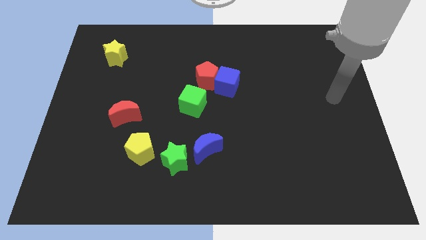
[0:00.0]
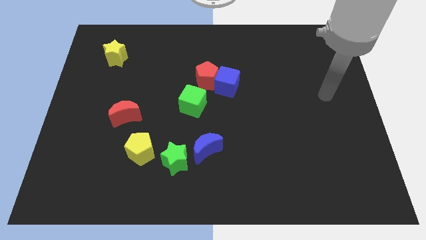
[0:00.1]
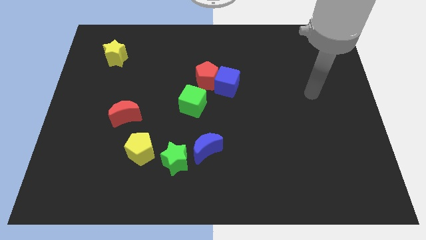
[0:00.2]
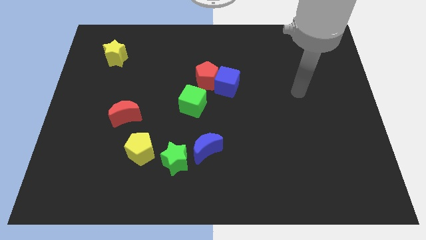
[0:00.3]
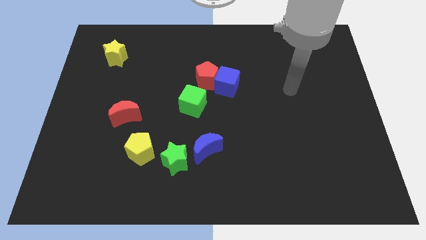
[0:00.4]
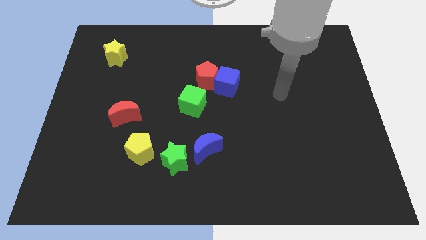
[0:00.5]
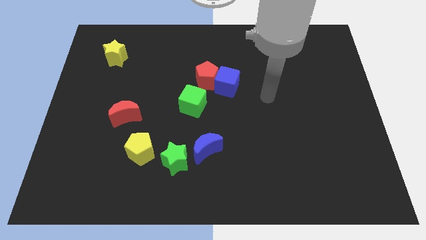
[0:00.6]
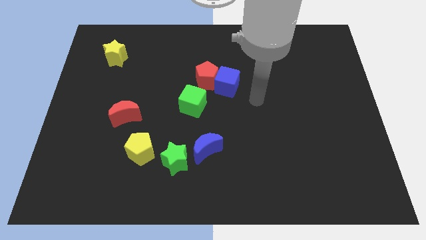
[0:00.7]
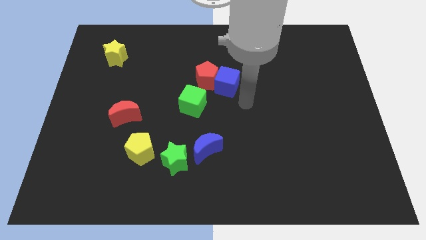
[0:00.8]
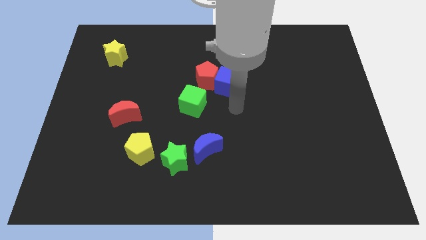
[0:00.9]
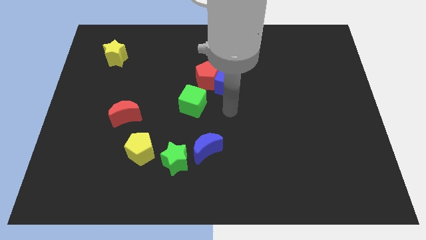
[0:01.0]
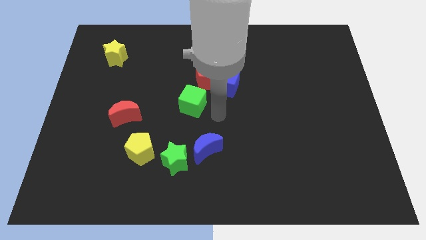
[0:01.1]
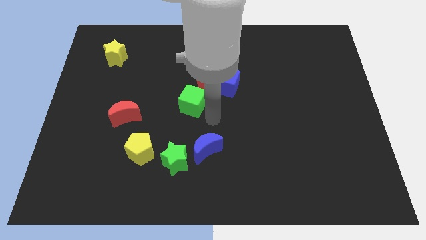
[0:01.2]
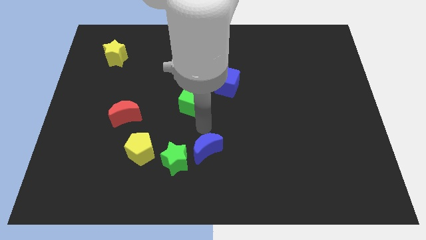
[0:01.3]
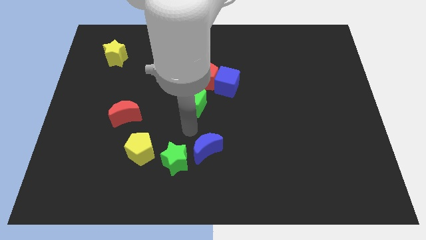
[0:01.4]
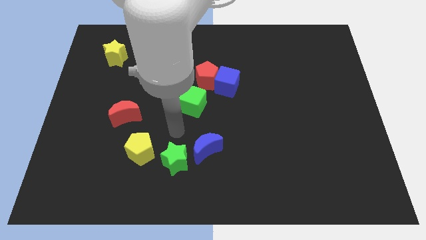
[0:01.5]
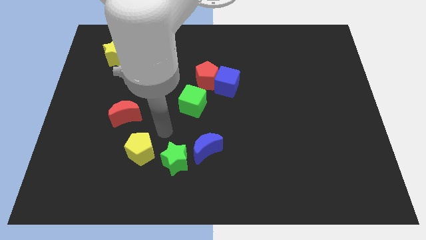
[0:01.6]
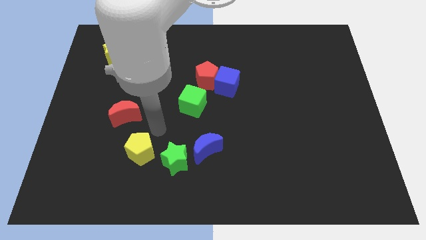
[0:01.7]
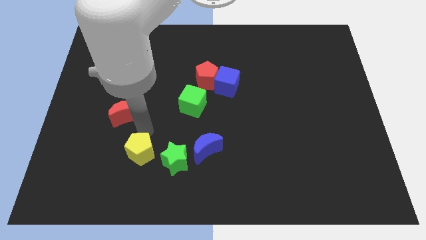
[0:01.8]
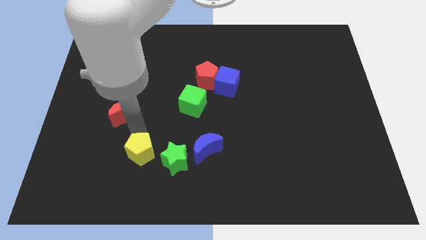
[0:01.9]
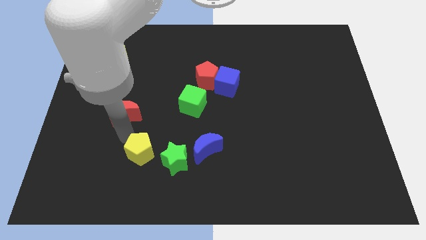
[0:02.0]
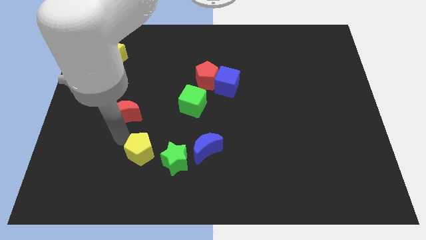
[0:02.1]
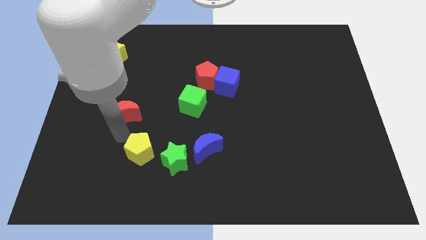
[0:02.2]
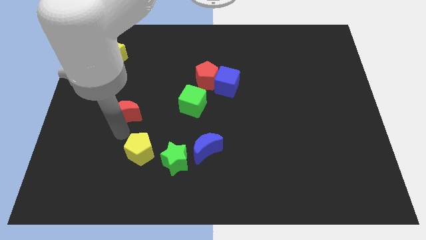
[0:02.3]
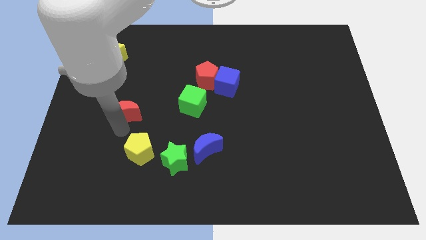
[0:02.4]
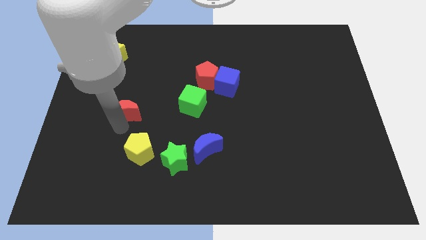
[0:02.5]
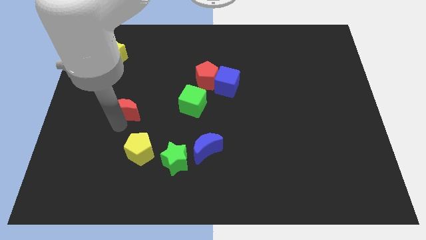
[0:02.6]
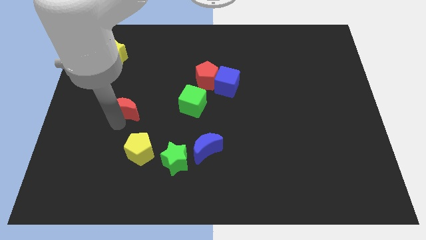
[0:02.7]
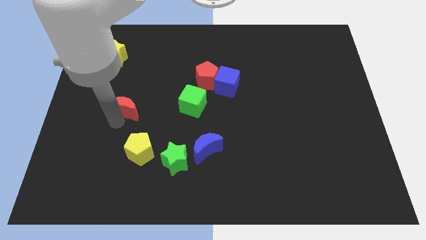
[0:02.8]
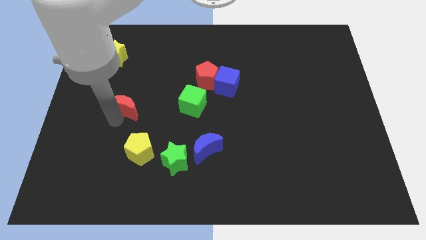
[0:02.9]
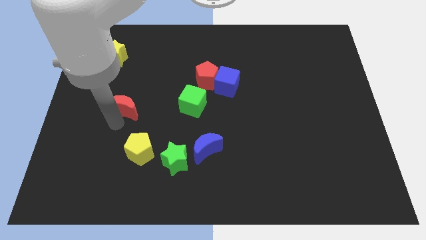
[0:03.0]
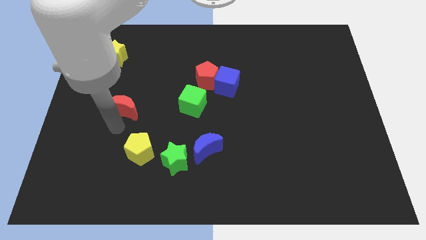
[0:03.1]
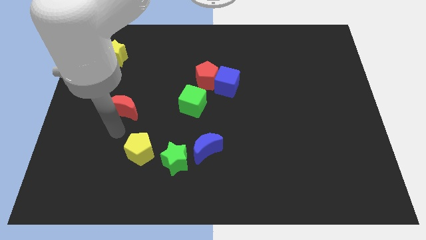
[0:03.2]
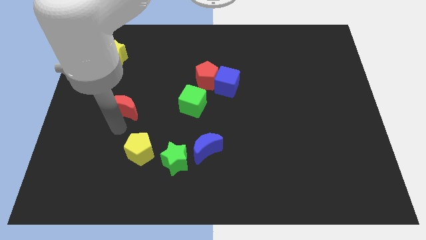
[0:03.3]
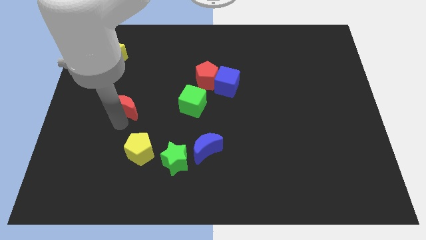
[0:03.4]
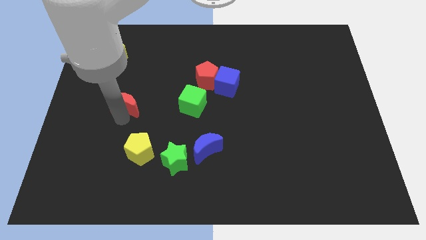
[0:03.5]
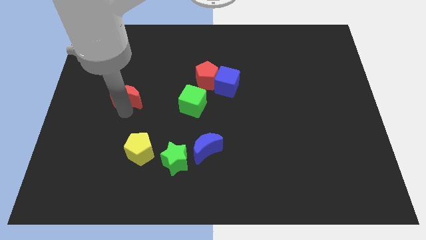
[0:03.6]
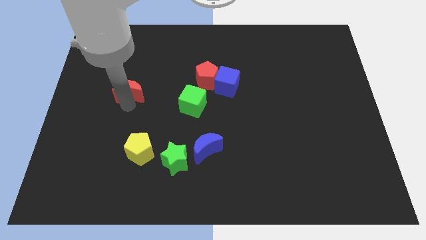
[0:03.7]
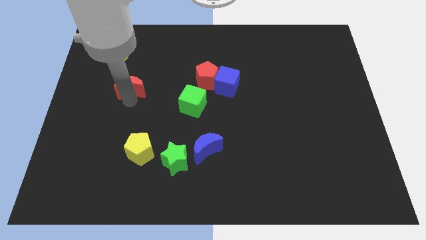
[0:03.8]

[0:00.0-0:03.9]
move the red moon somewhat upwards

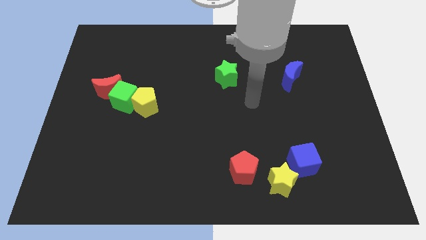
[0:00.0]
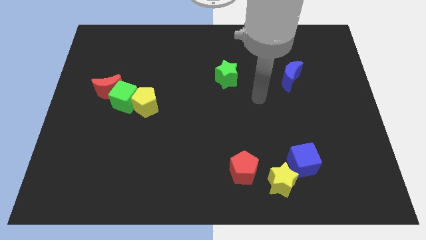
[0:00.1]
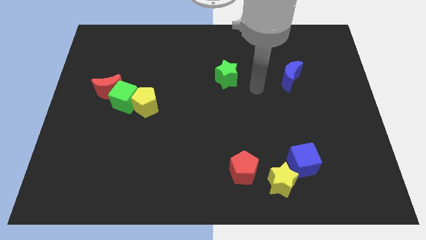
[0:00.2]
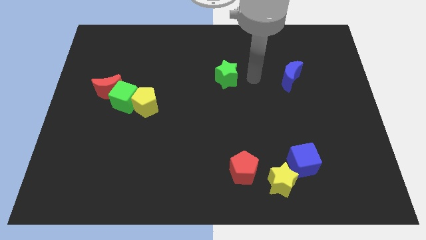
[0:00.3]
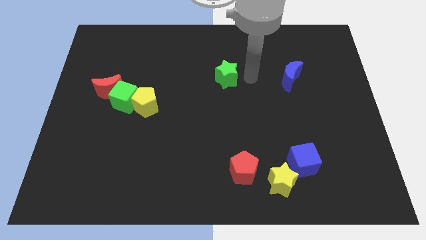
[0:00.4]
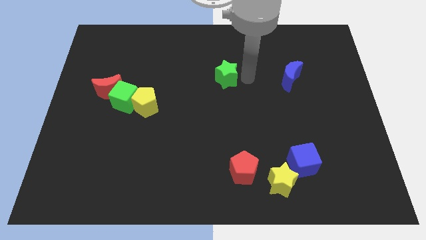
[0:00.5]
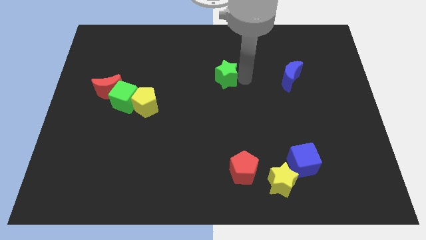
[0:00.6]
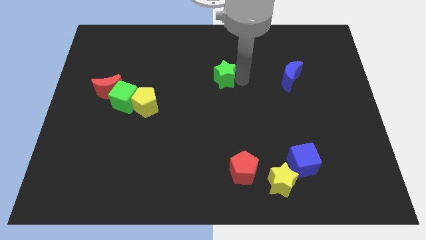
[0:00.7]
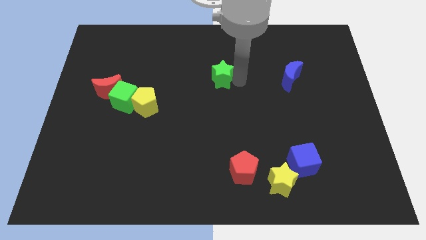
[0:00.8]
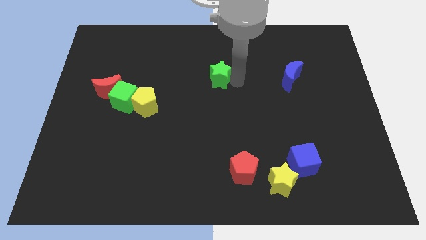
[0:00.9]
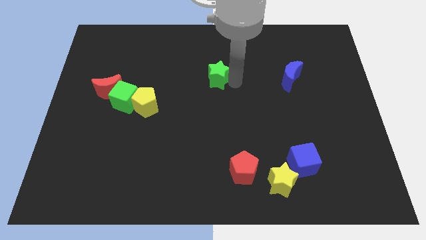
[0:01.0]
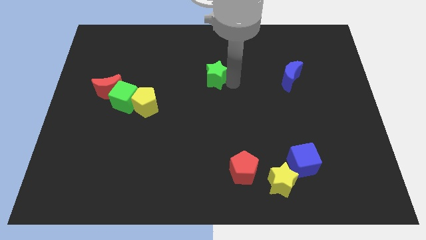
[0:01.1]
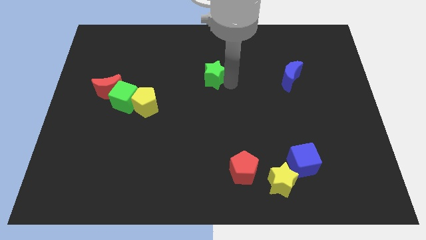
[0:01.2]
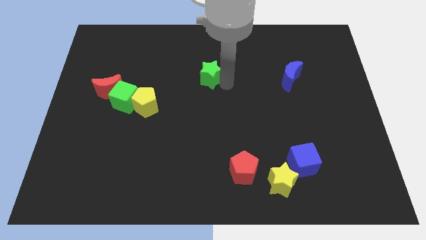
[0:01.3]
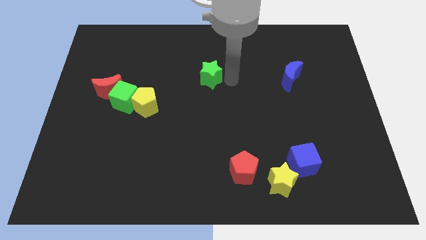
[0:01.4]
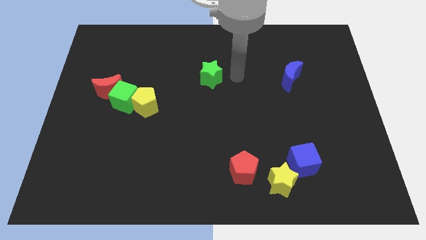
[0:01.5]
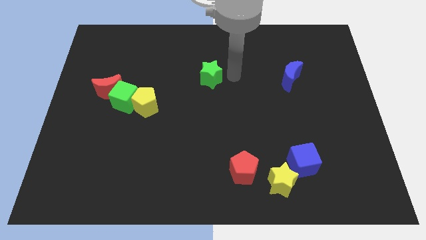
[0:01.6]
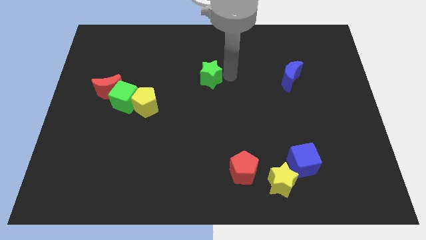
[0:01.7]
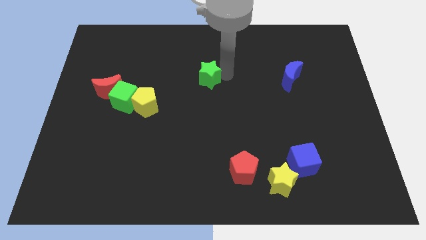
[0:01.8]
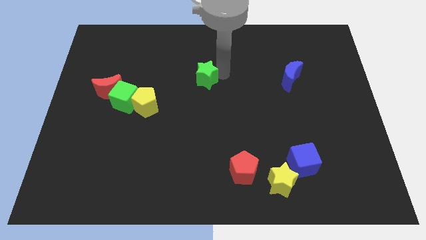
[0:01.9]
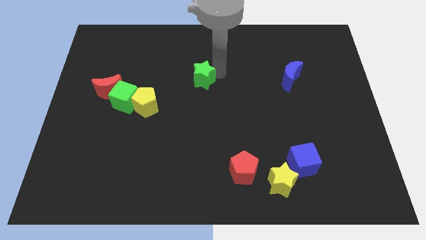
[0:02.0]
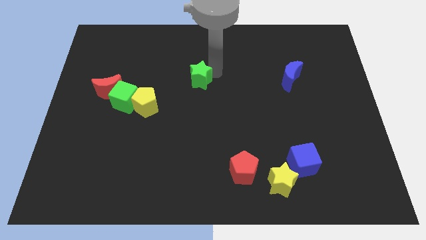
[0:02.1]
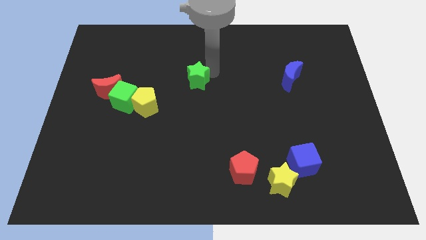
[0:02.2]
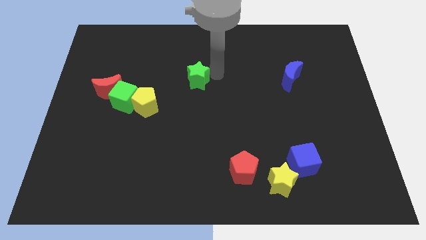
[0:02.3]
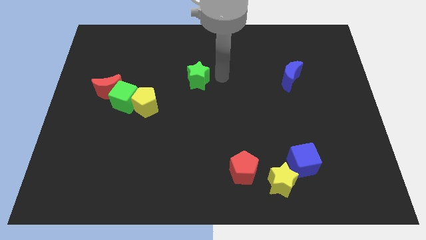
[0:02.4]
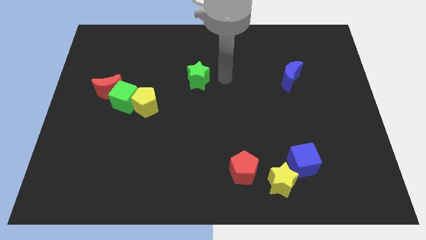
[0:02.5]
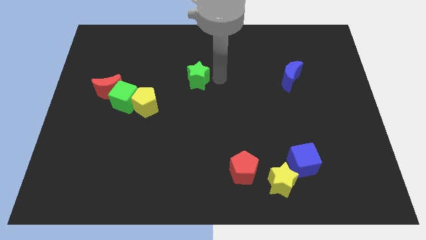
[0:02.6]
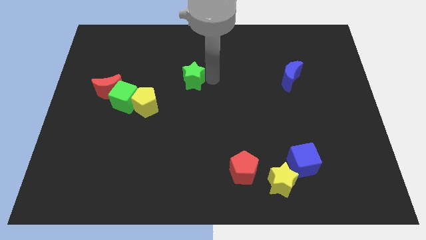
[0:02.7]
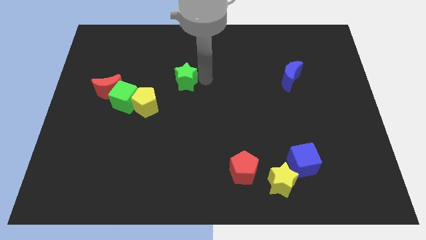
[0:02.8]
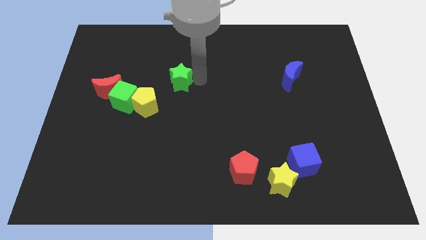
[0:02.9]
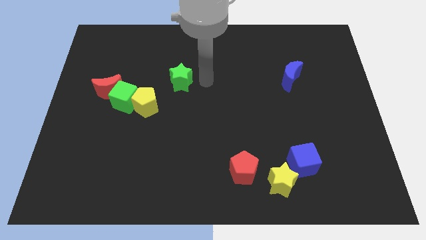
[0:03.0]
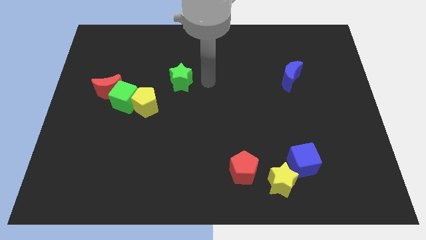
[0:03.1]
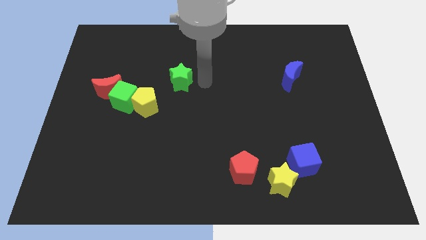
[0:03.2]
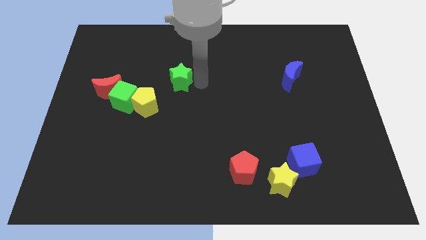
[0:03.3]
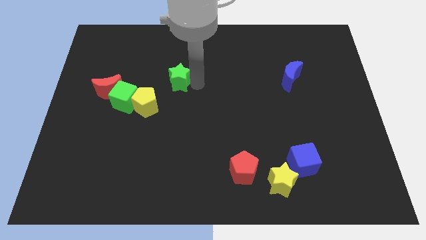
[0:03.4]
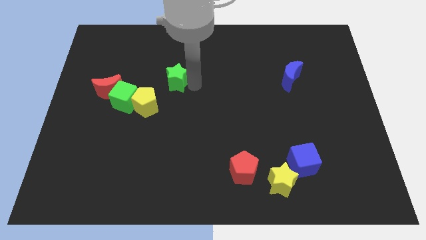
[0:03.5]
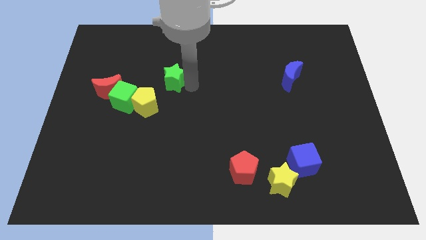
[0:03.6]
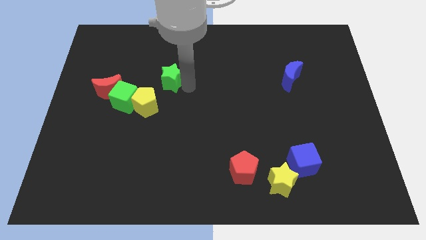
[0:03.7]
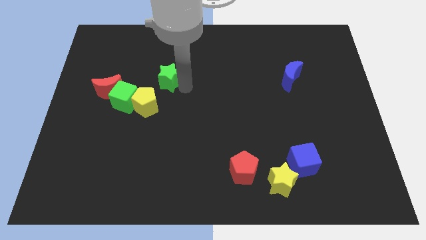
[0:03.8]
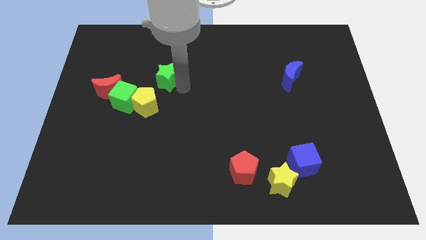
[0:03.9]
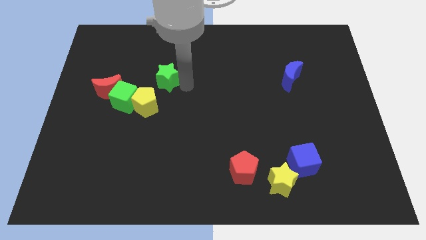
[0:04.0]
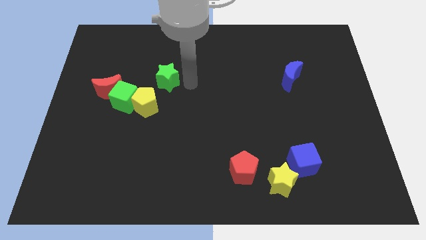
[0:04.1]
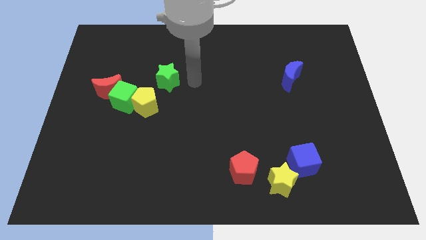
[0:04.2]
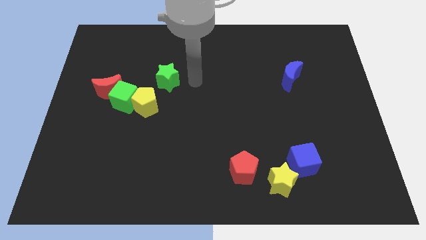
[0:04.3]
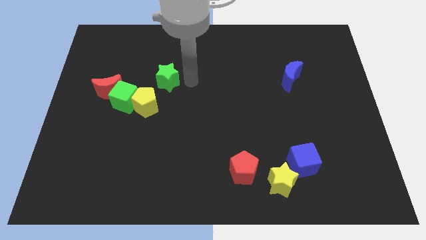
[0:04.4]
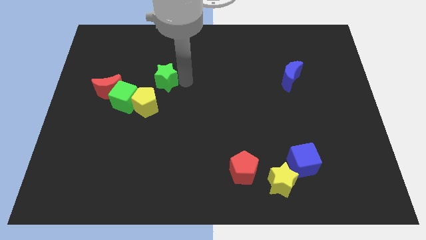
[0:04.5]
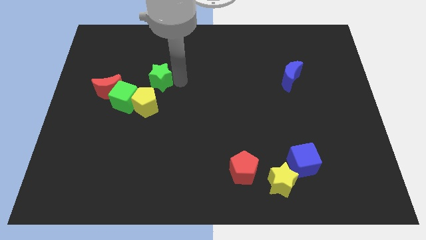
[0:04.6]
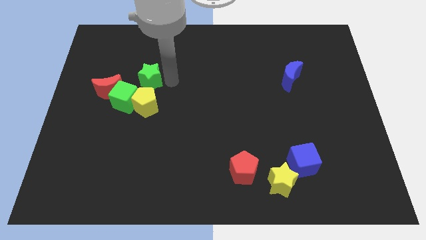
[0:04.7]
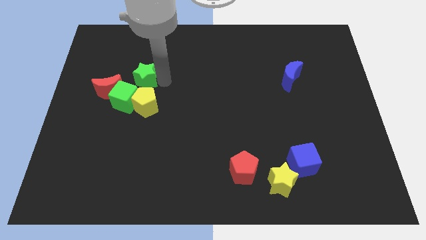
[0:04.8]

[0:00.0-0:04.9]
push the green star to the left
